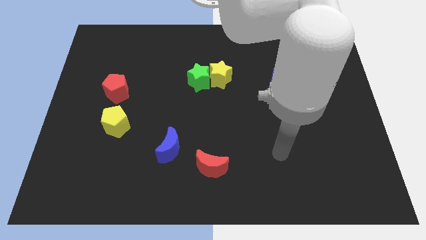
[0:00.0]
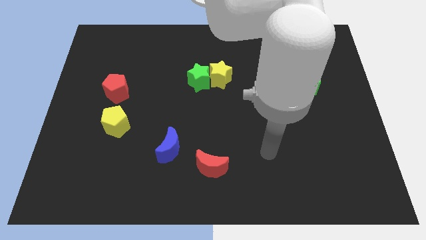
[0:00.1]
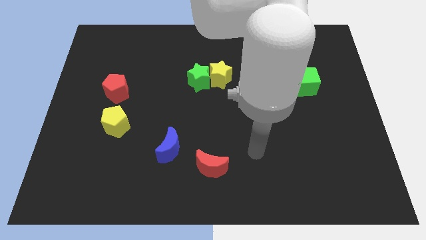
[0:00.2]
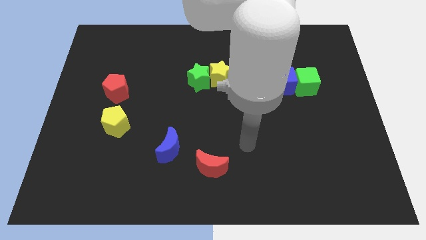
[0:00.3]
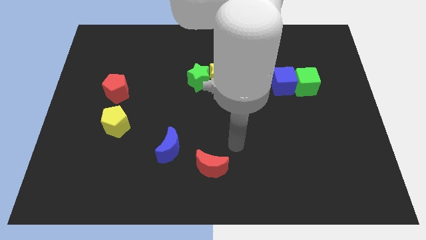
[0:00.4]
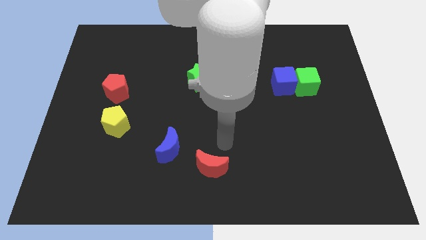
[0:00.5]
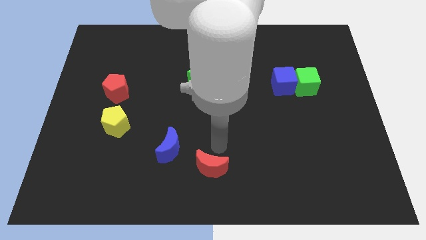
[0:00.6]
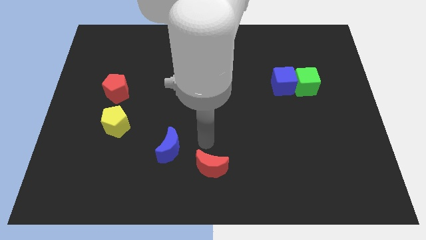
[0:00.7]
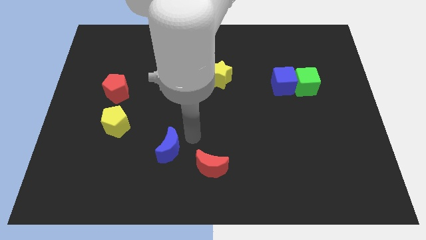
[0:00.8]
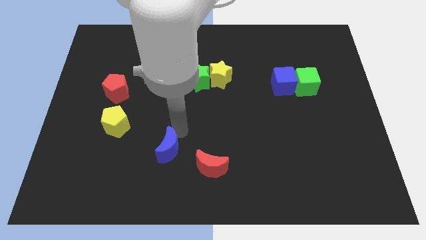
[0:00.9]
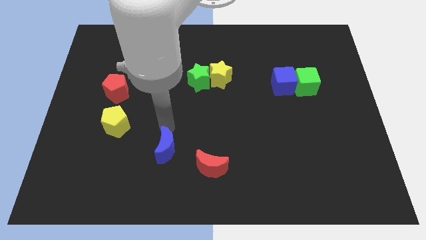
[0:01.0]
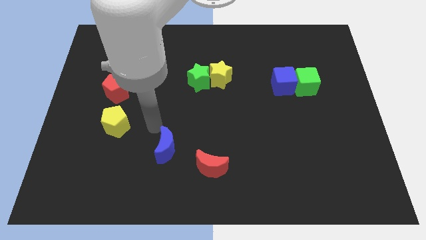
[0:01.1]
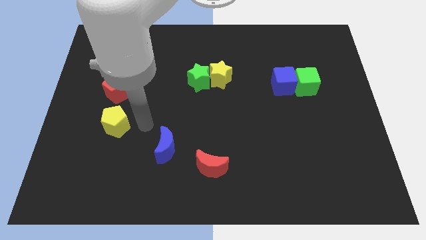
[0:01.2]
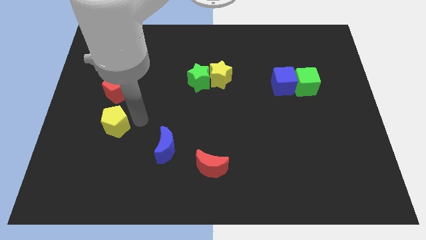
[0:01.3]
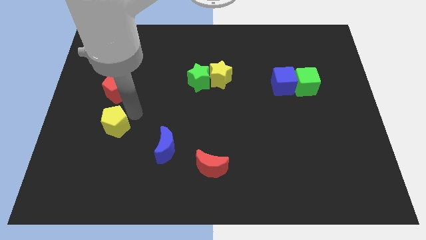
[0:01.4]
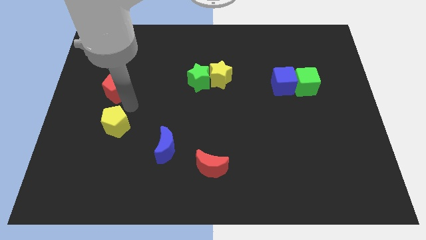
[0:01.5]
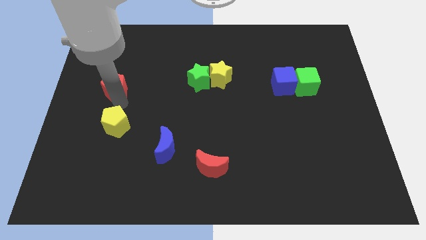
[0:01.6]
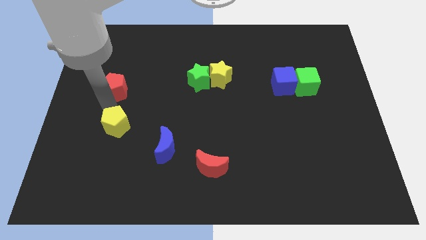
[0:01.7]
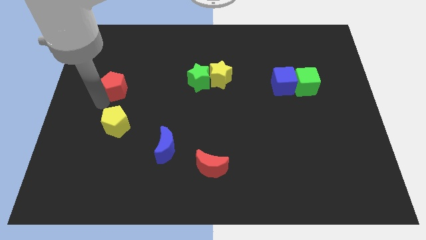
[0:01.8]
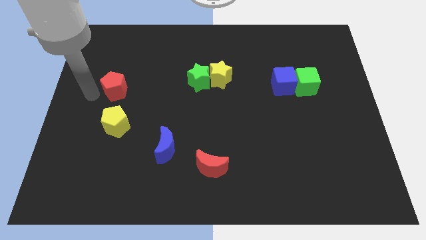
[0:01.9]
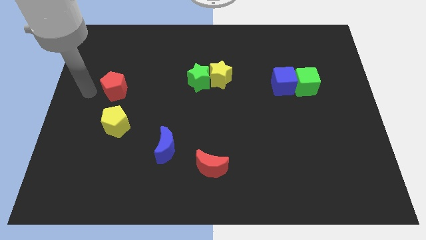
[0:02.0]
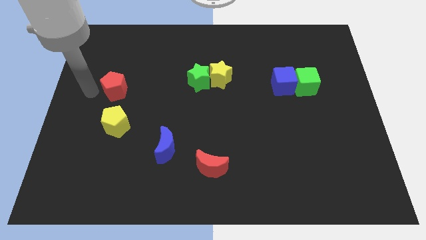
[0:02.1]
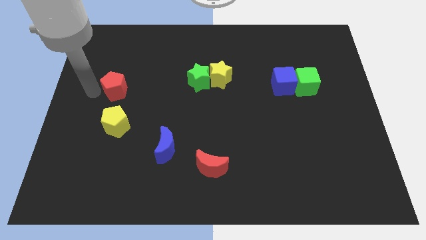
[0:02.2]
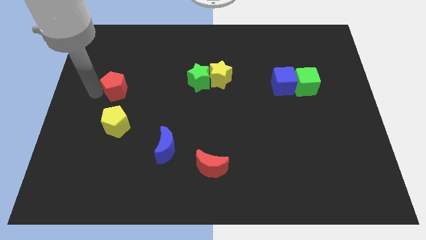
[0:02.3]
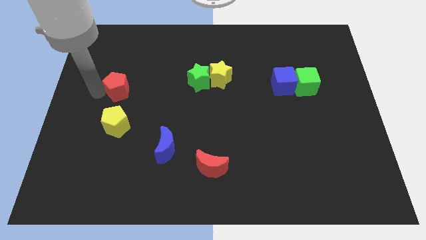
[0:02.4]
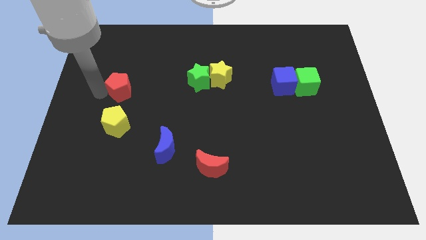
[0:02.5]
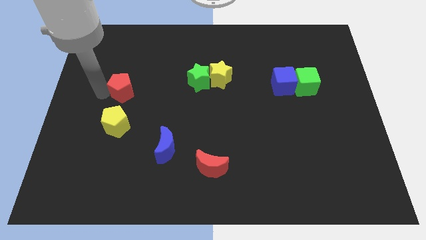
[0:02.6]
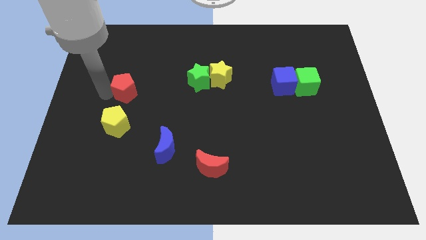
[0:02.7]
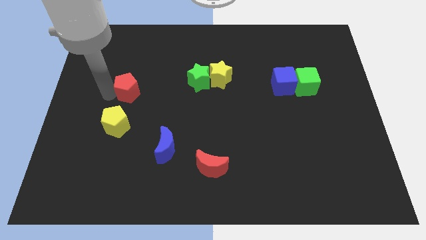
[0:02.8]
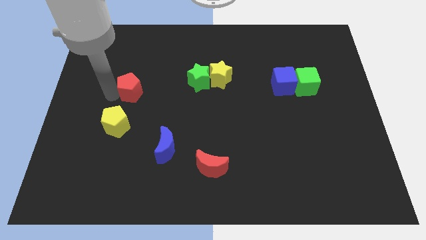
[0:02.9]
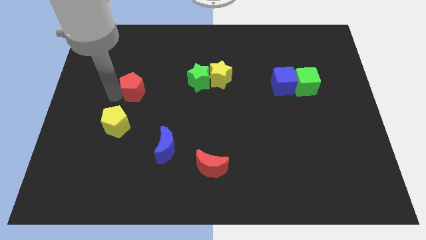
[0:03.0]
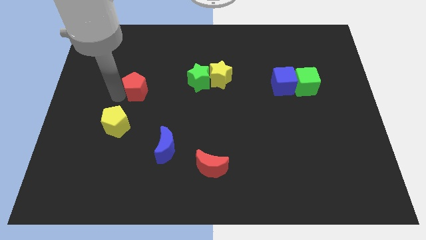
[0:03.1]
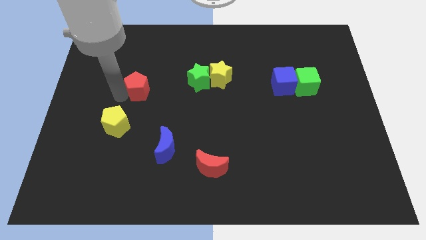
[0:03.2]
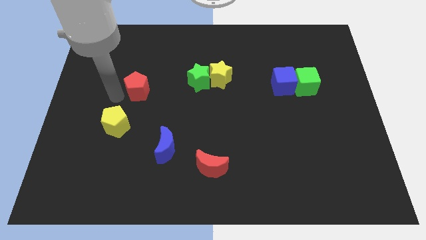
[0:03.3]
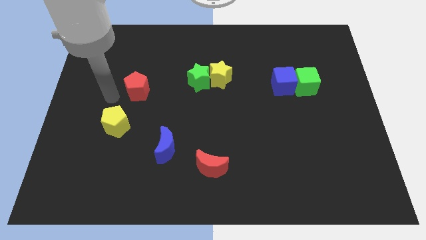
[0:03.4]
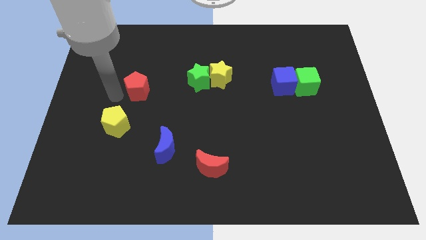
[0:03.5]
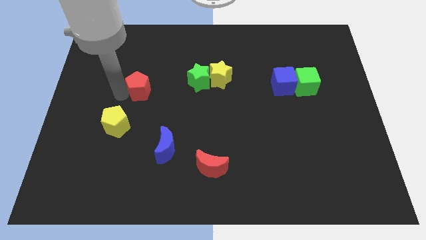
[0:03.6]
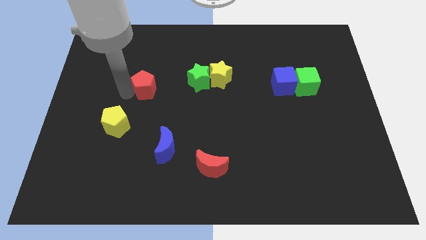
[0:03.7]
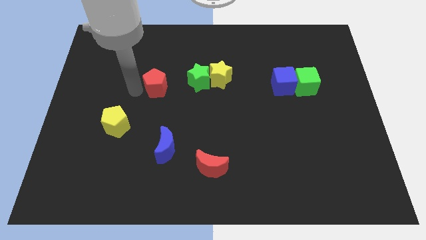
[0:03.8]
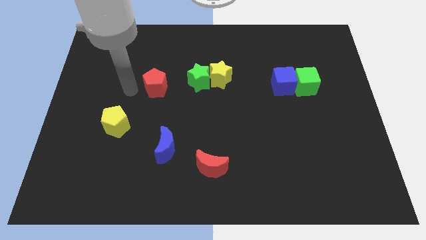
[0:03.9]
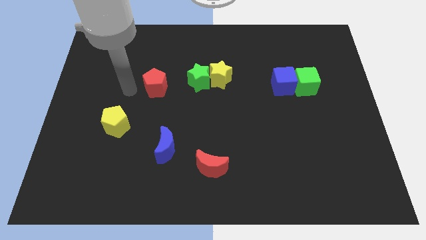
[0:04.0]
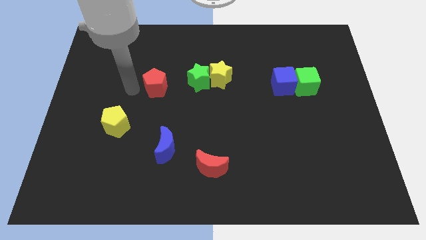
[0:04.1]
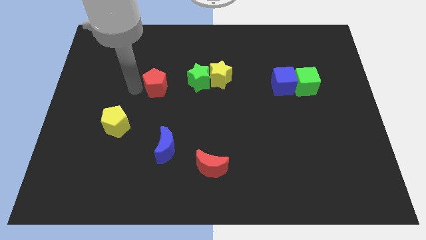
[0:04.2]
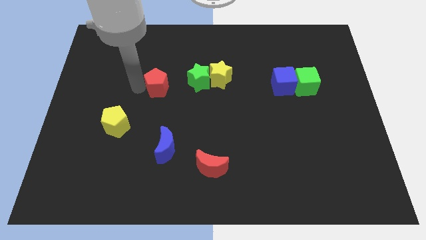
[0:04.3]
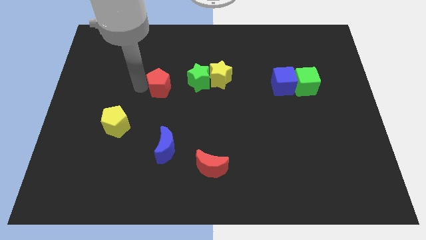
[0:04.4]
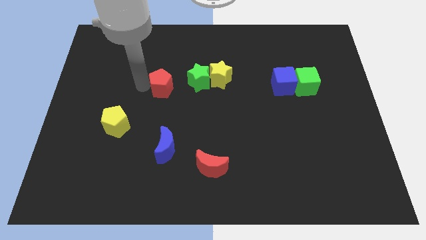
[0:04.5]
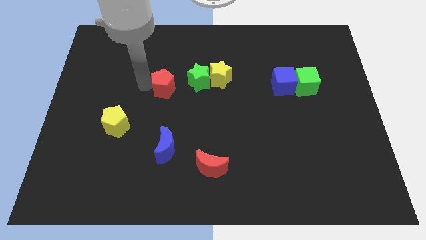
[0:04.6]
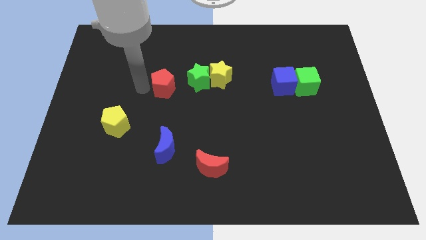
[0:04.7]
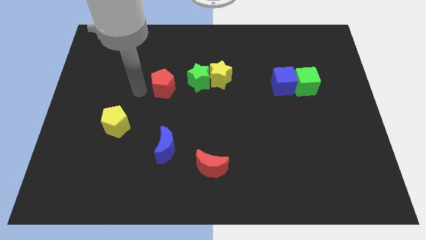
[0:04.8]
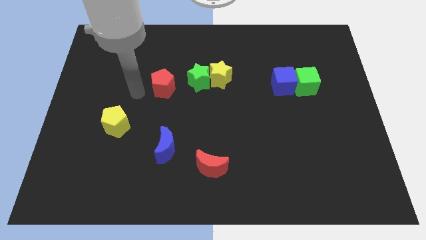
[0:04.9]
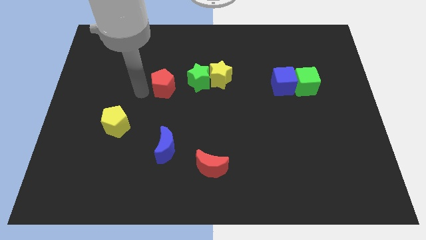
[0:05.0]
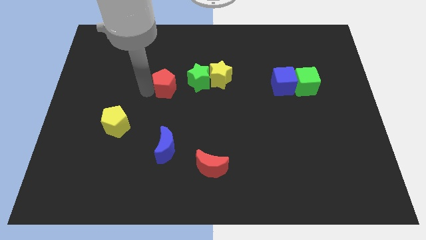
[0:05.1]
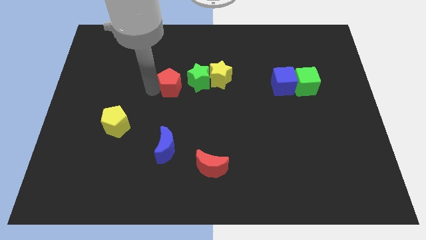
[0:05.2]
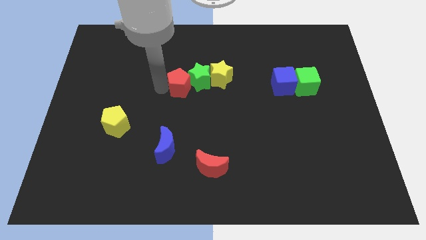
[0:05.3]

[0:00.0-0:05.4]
put the red pentagon to the green star

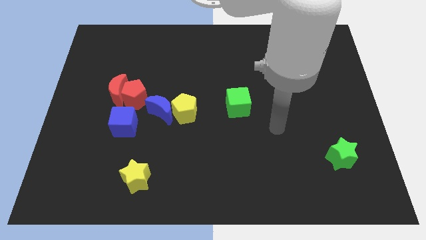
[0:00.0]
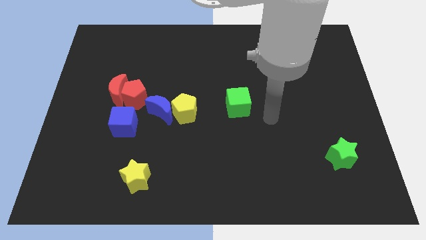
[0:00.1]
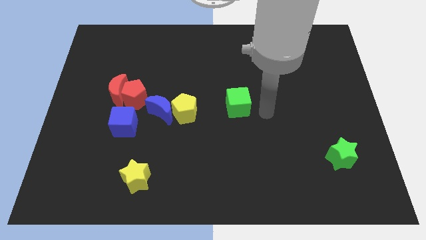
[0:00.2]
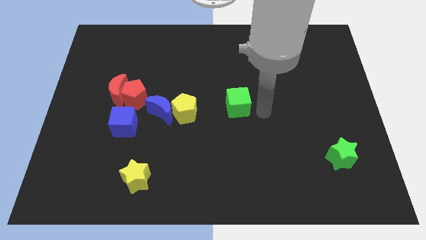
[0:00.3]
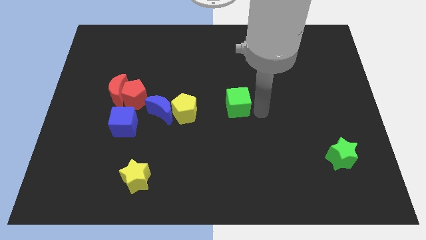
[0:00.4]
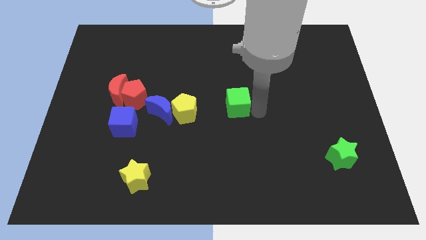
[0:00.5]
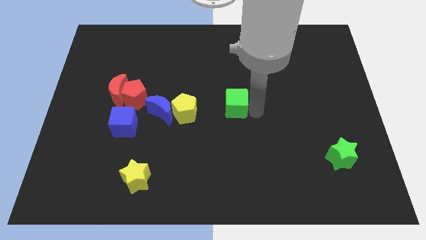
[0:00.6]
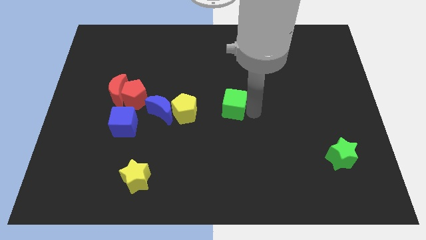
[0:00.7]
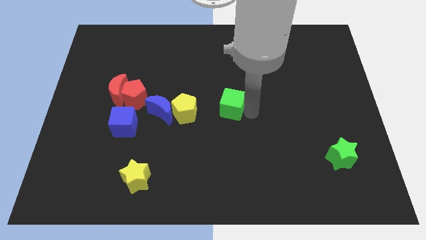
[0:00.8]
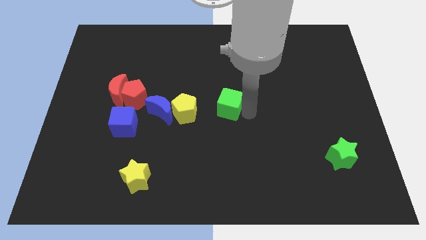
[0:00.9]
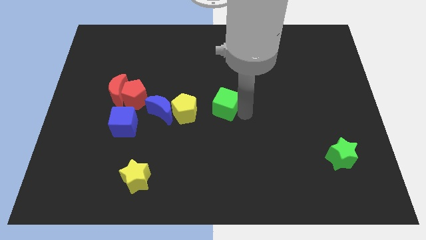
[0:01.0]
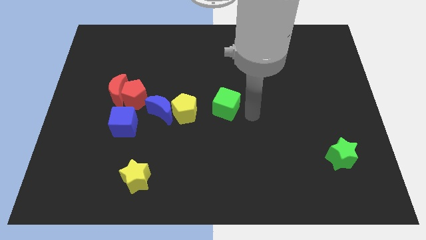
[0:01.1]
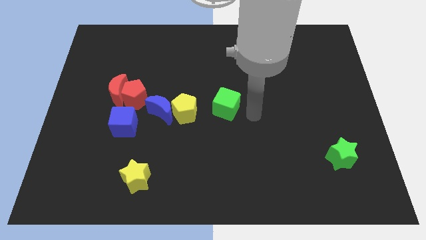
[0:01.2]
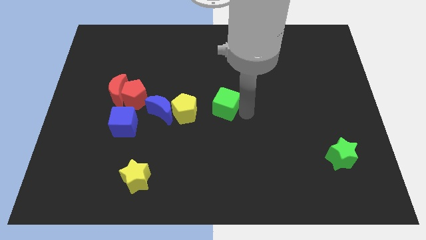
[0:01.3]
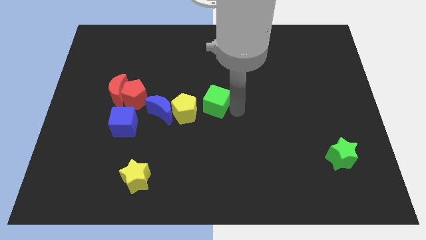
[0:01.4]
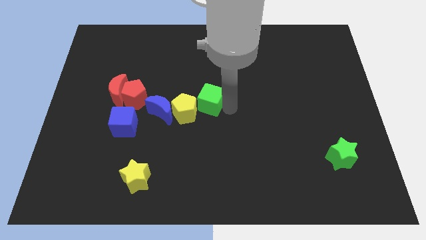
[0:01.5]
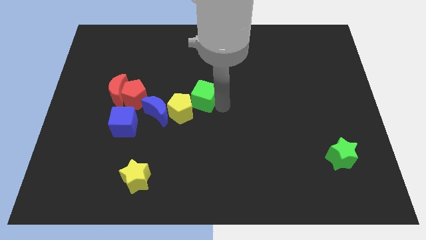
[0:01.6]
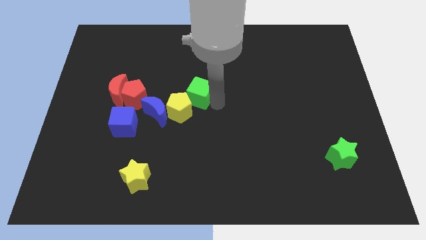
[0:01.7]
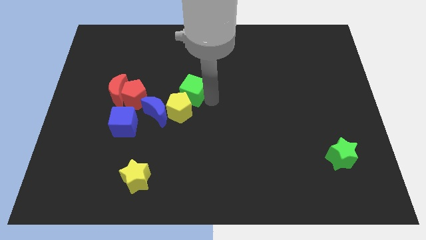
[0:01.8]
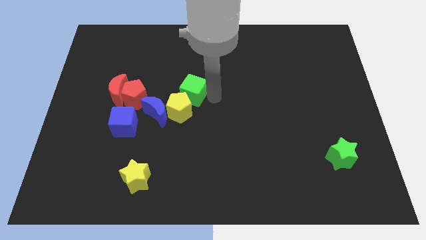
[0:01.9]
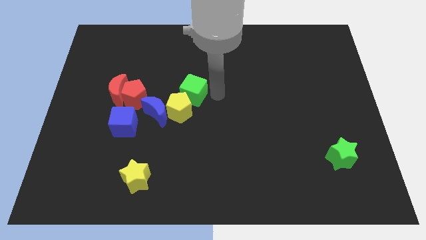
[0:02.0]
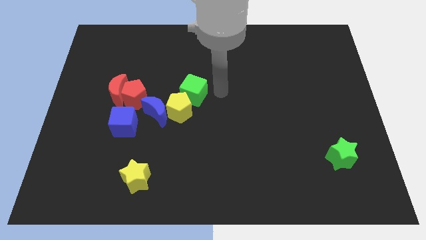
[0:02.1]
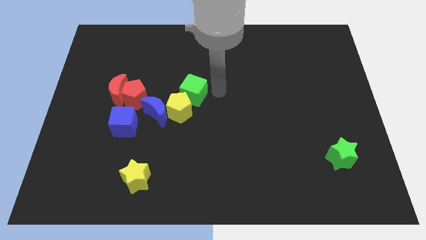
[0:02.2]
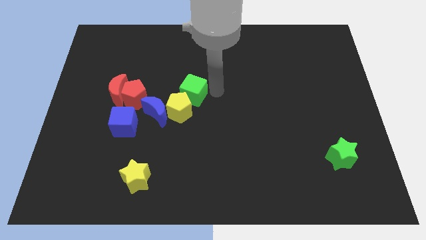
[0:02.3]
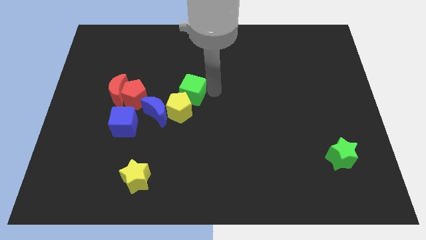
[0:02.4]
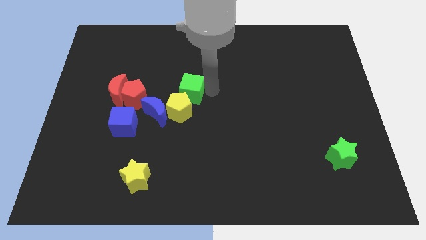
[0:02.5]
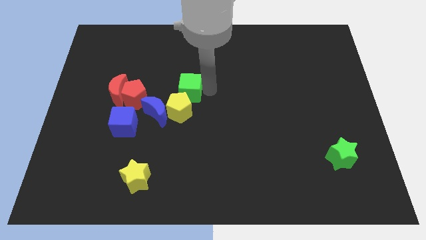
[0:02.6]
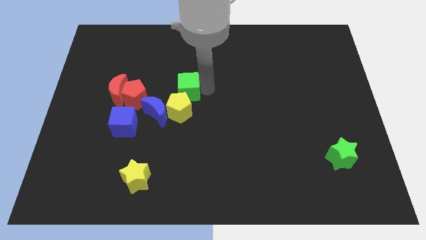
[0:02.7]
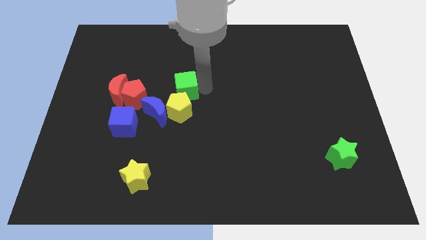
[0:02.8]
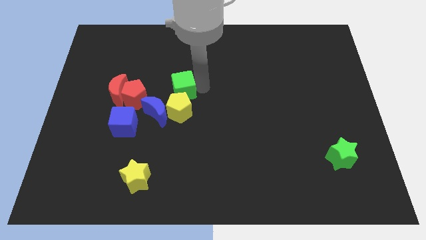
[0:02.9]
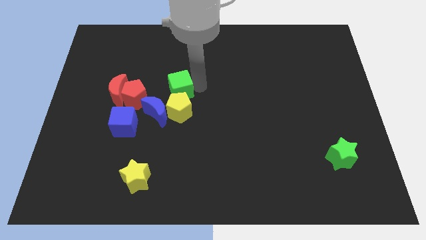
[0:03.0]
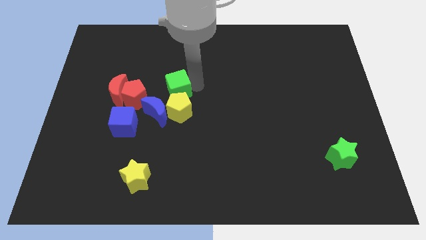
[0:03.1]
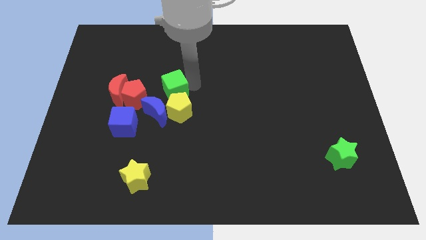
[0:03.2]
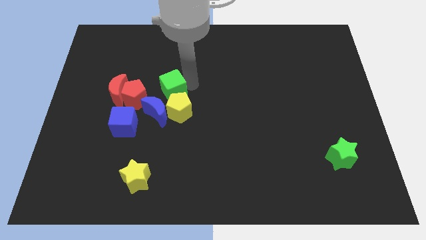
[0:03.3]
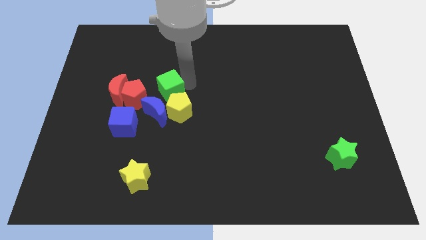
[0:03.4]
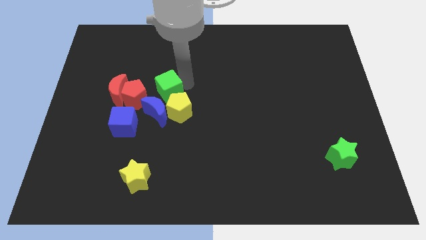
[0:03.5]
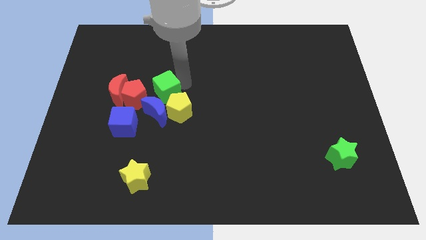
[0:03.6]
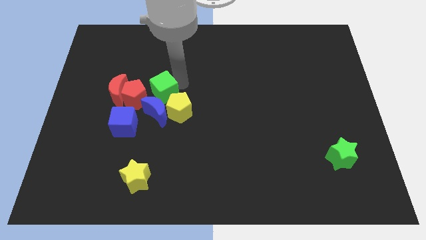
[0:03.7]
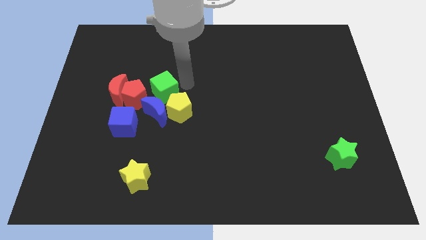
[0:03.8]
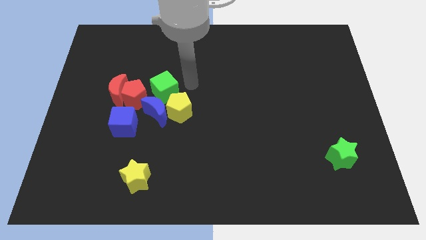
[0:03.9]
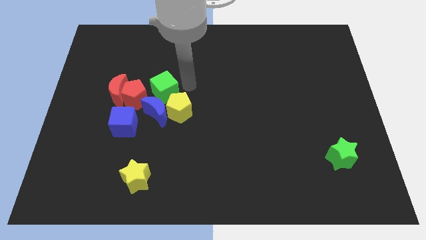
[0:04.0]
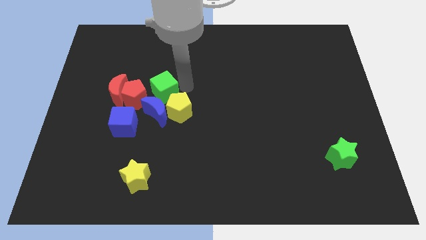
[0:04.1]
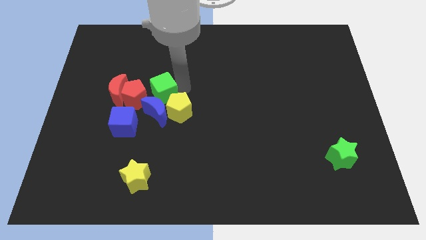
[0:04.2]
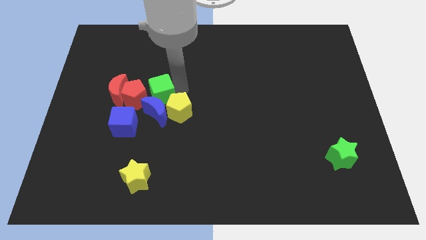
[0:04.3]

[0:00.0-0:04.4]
push the green cube to the red pentagon
